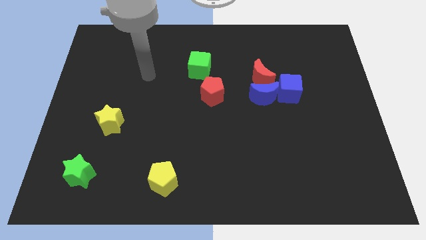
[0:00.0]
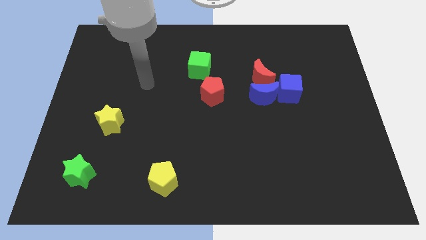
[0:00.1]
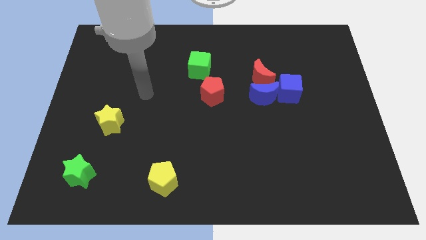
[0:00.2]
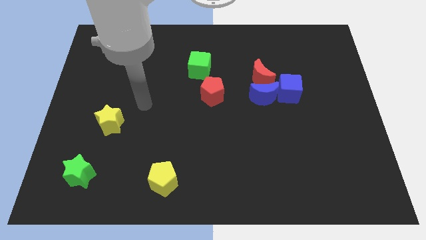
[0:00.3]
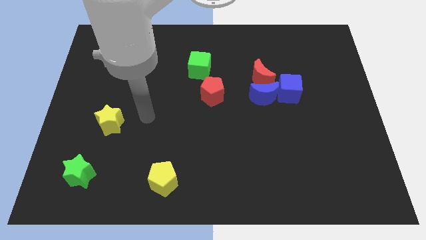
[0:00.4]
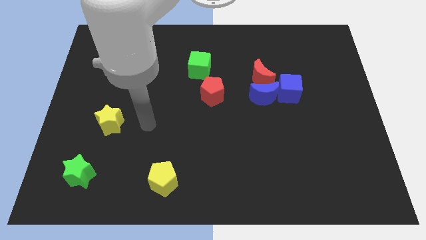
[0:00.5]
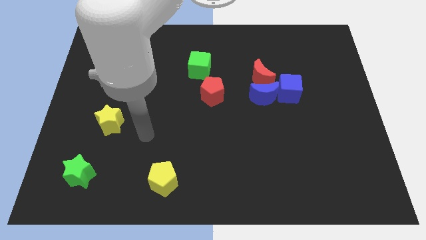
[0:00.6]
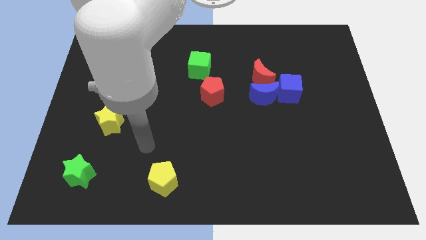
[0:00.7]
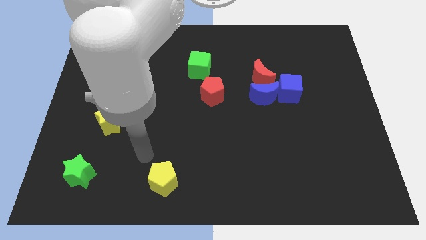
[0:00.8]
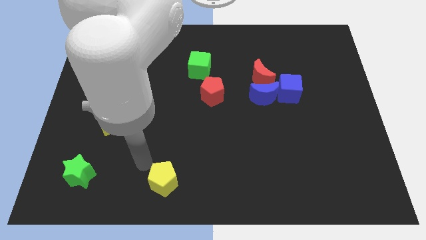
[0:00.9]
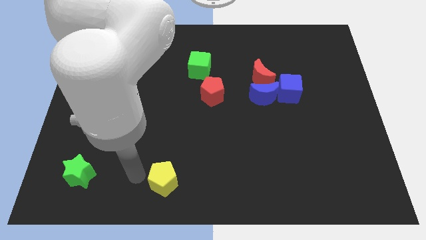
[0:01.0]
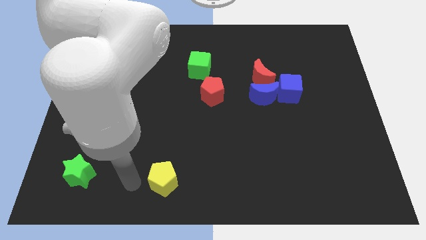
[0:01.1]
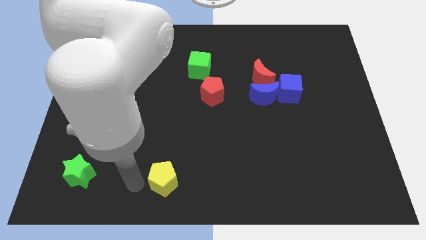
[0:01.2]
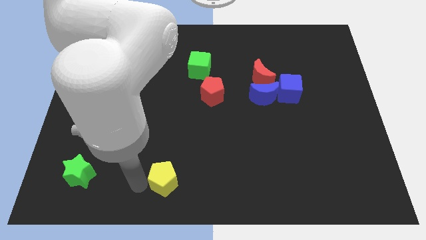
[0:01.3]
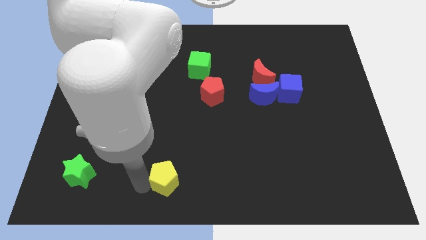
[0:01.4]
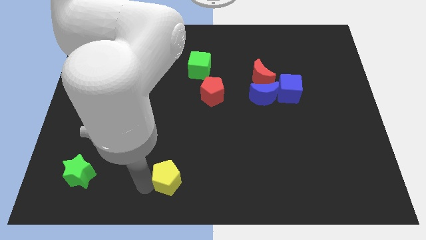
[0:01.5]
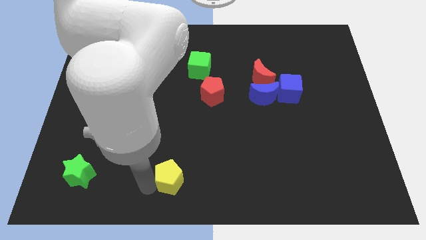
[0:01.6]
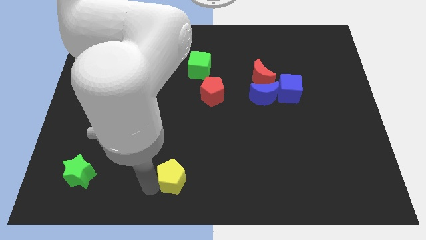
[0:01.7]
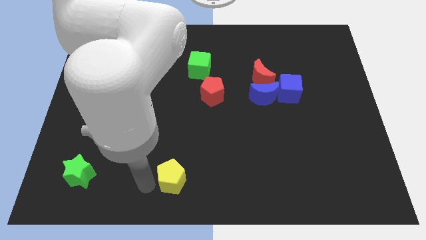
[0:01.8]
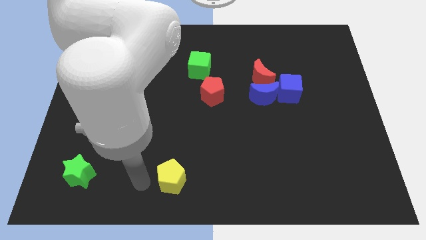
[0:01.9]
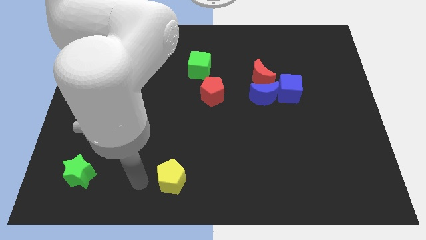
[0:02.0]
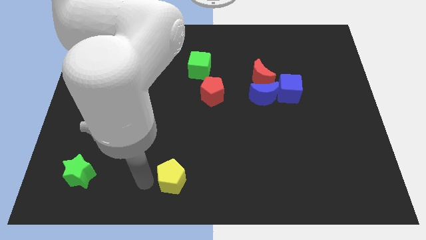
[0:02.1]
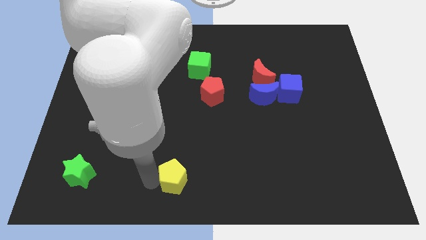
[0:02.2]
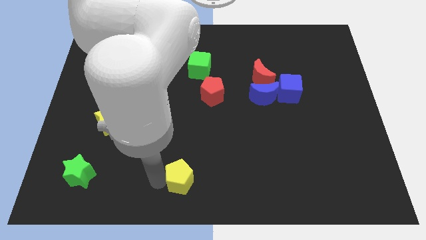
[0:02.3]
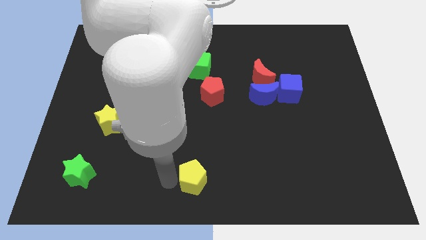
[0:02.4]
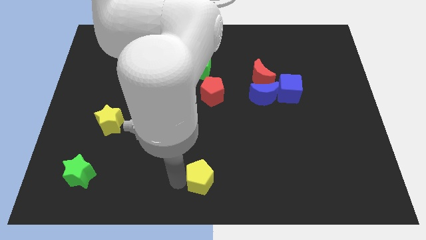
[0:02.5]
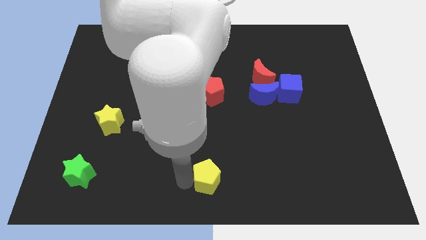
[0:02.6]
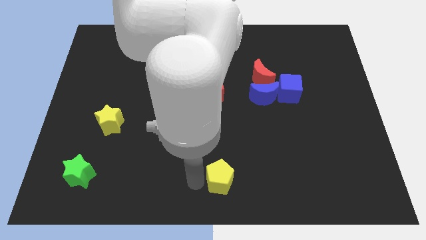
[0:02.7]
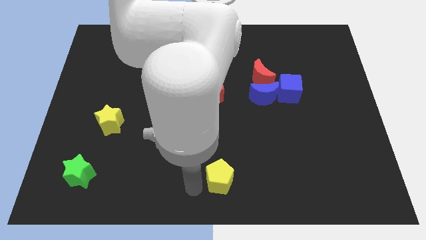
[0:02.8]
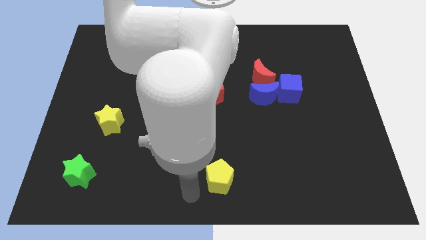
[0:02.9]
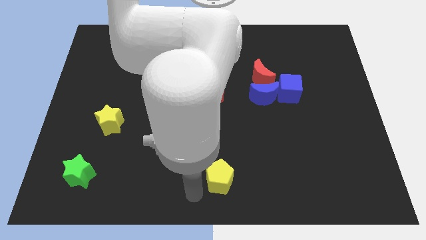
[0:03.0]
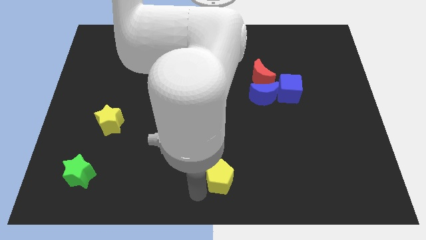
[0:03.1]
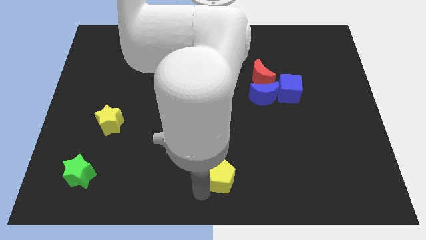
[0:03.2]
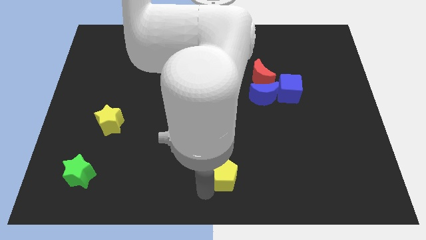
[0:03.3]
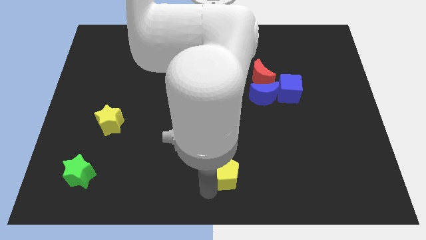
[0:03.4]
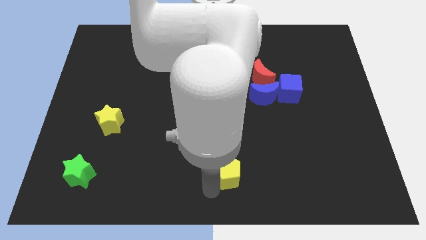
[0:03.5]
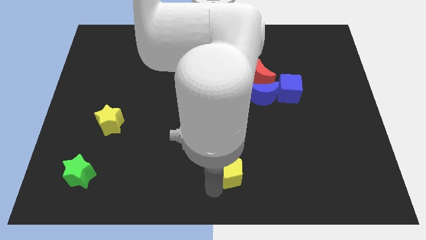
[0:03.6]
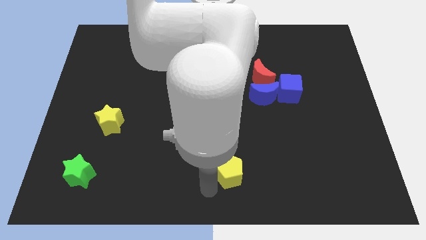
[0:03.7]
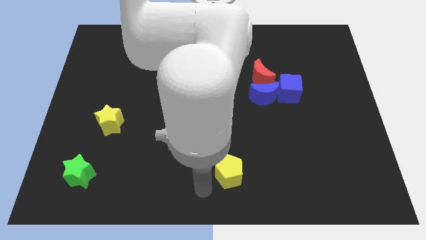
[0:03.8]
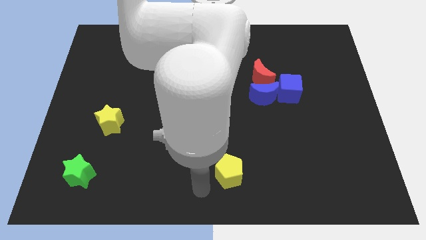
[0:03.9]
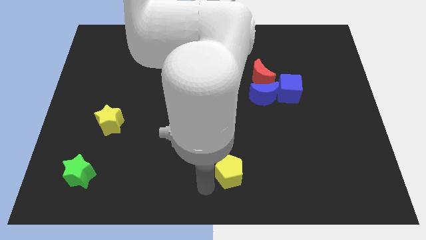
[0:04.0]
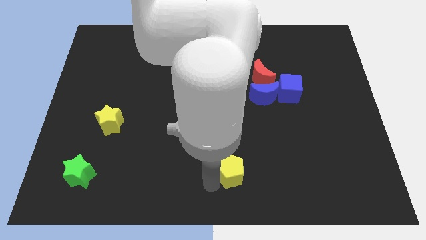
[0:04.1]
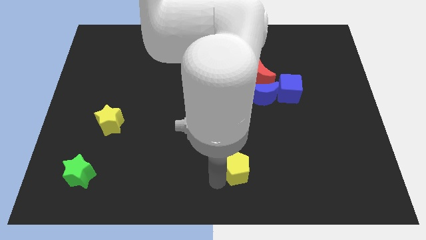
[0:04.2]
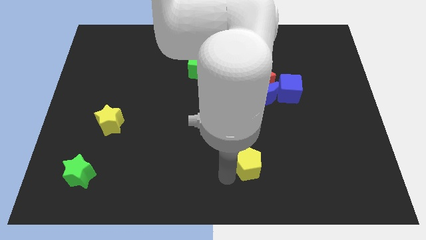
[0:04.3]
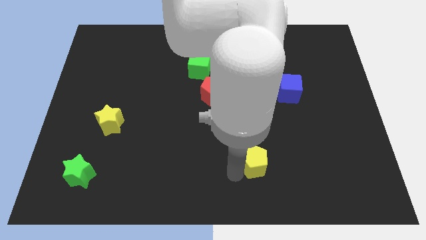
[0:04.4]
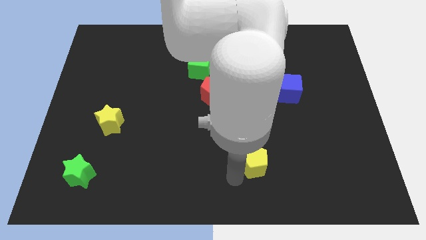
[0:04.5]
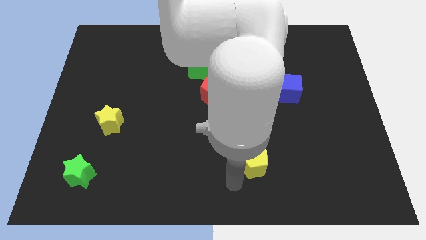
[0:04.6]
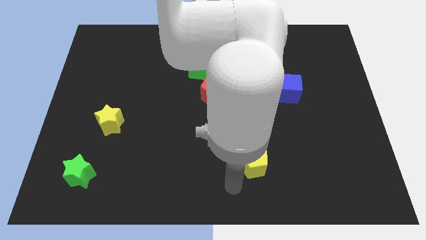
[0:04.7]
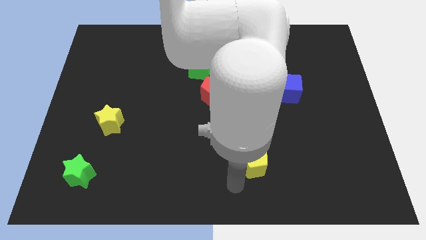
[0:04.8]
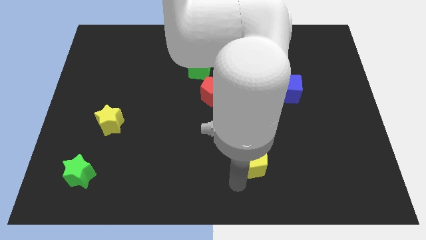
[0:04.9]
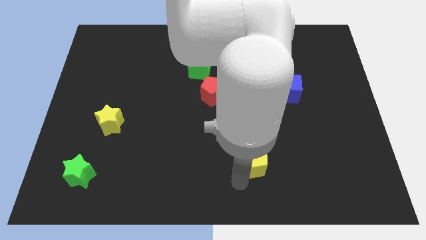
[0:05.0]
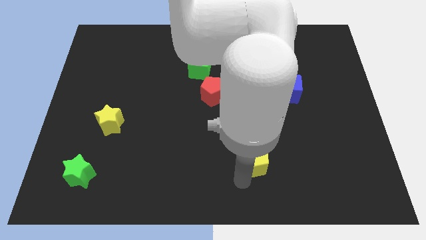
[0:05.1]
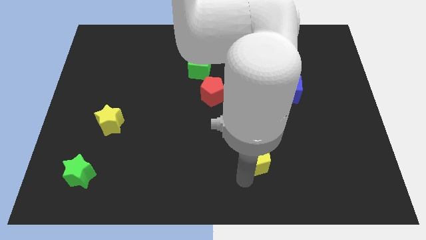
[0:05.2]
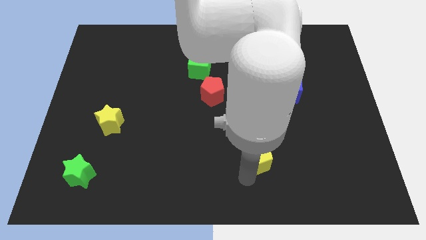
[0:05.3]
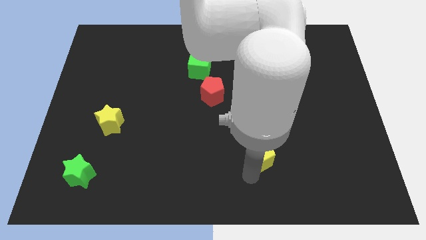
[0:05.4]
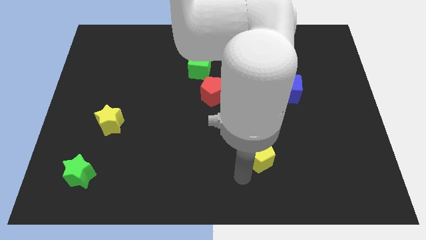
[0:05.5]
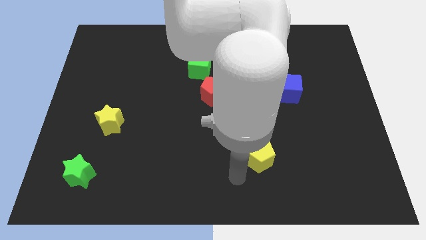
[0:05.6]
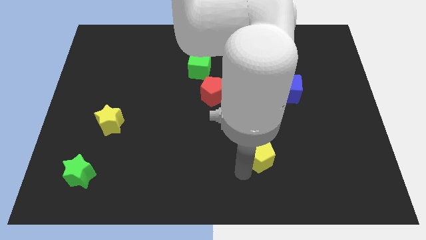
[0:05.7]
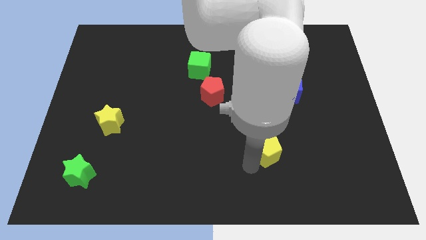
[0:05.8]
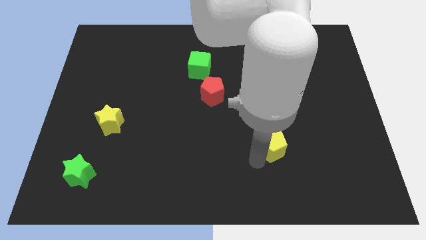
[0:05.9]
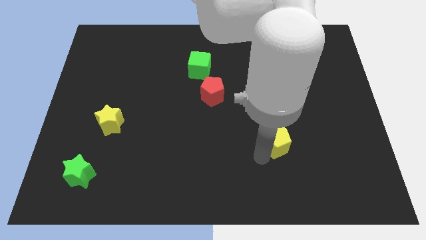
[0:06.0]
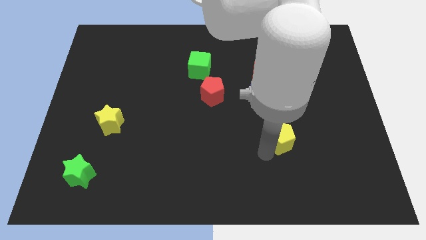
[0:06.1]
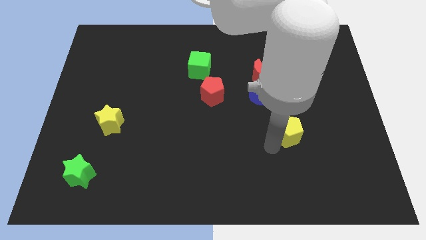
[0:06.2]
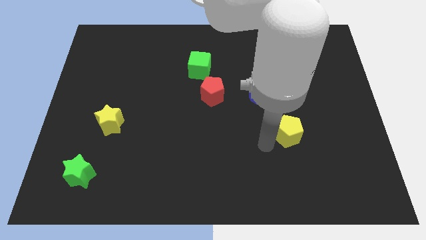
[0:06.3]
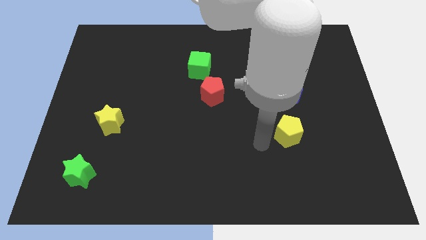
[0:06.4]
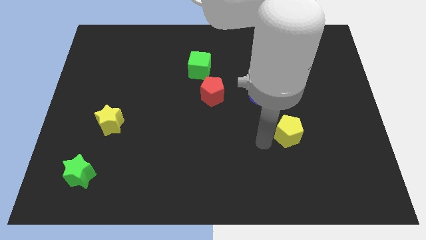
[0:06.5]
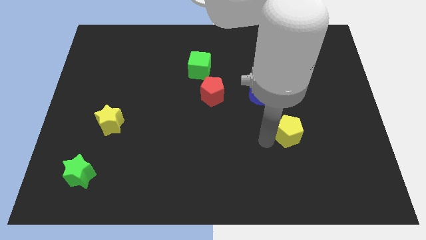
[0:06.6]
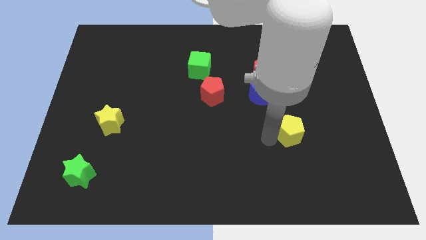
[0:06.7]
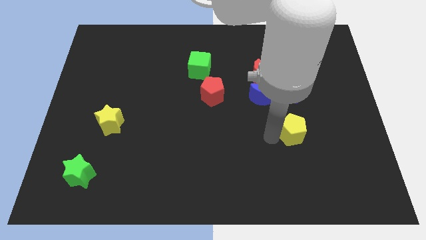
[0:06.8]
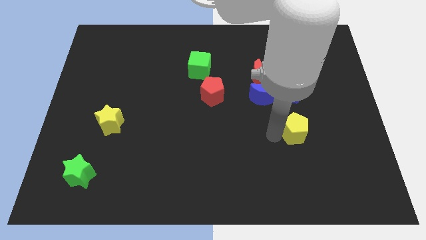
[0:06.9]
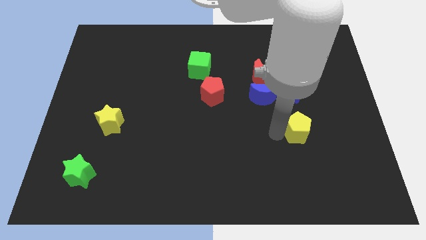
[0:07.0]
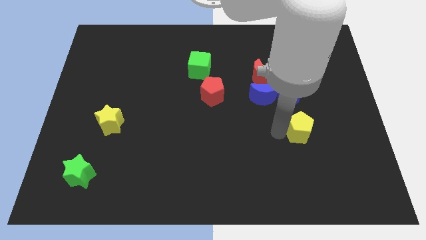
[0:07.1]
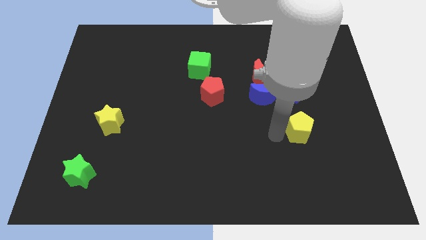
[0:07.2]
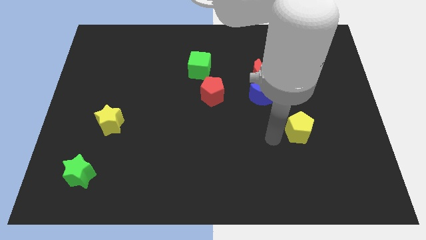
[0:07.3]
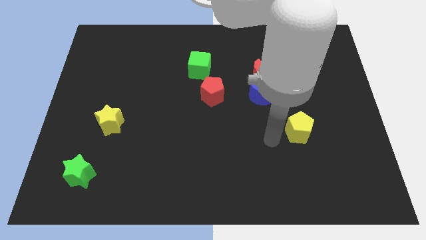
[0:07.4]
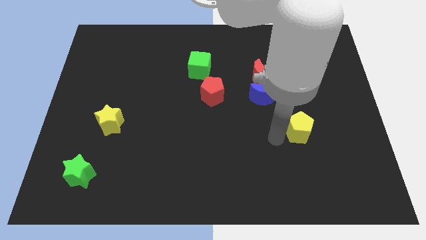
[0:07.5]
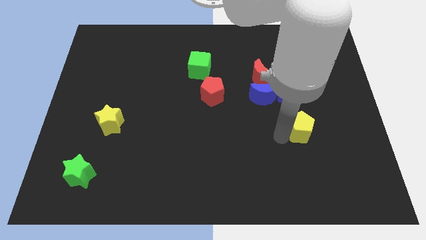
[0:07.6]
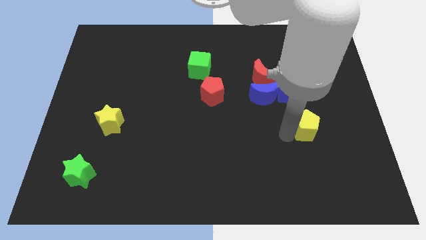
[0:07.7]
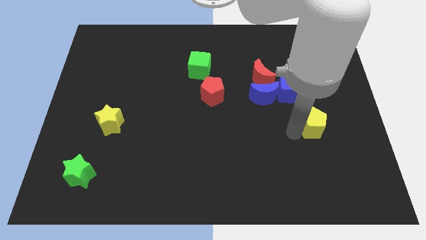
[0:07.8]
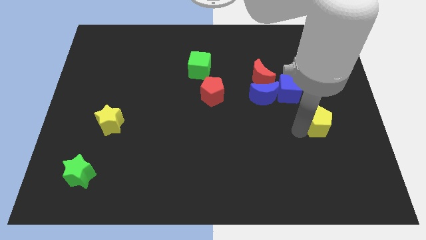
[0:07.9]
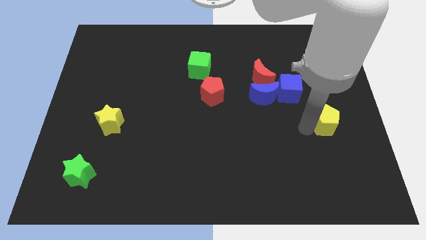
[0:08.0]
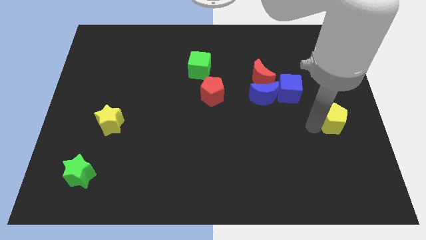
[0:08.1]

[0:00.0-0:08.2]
push the yellow pentagon to the right side of the board
